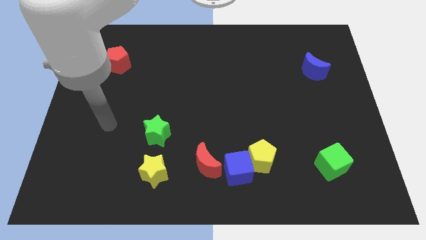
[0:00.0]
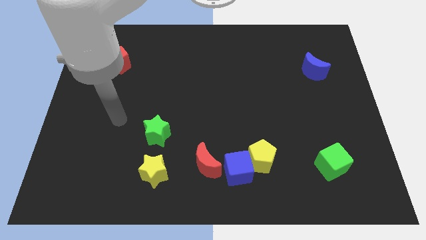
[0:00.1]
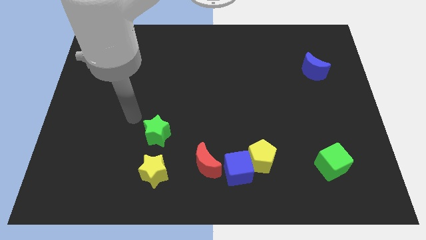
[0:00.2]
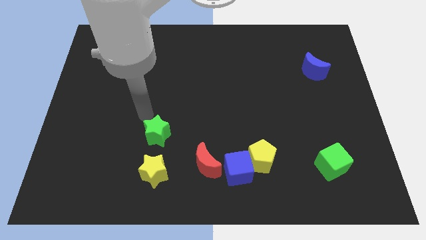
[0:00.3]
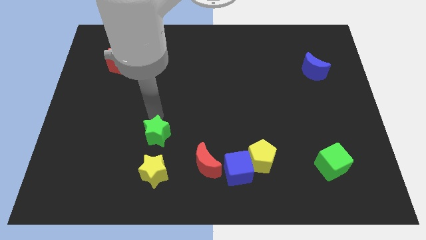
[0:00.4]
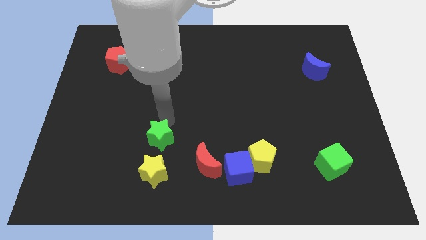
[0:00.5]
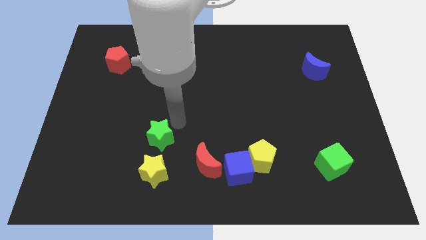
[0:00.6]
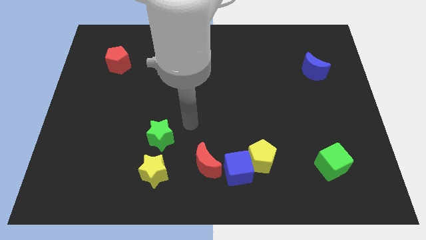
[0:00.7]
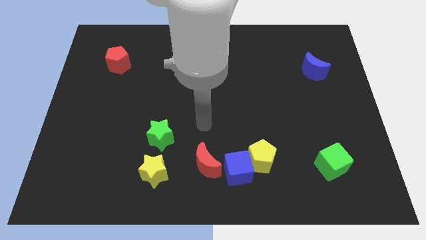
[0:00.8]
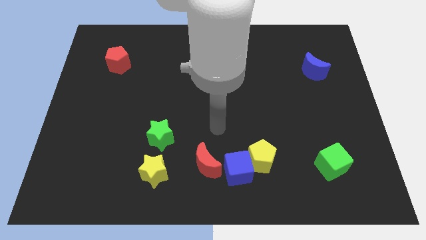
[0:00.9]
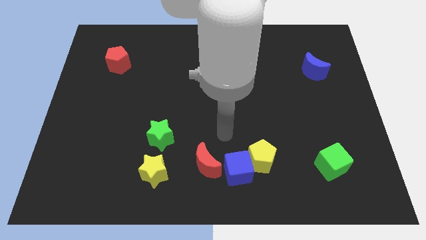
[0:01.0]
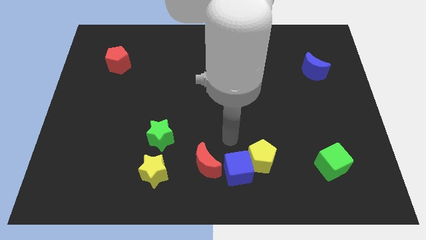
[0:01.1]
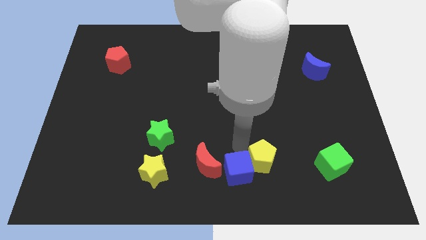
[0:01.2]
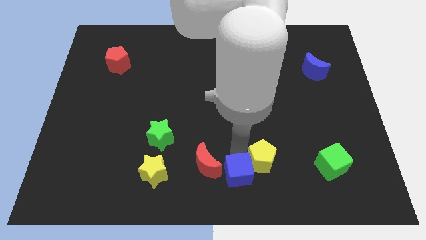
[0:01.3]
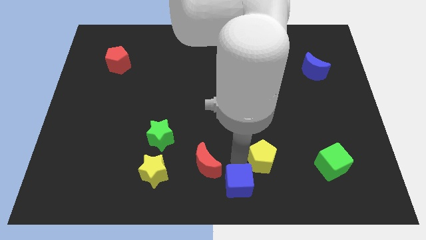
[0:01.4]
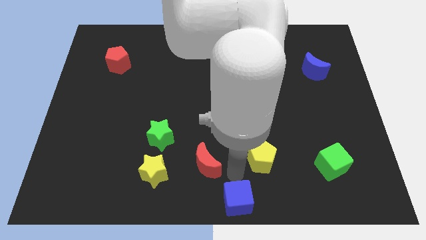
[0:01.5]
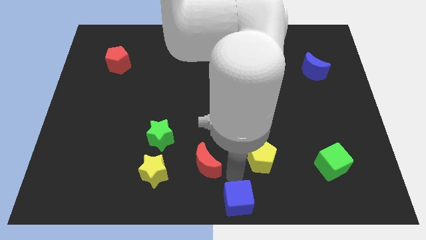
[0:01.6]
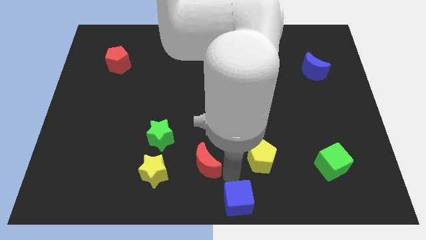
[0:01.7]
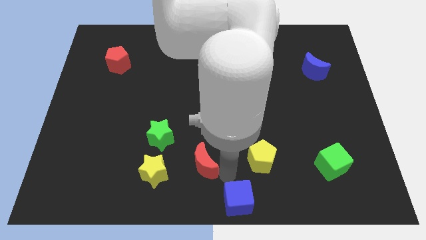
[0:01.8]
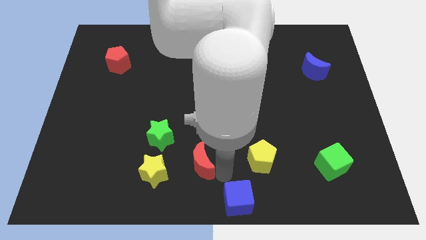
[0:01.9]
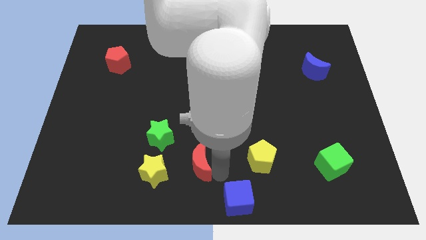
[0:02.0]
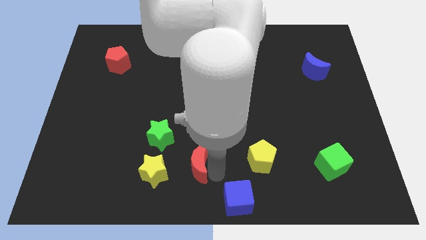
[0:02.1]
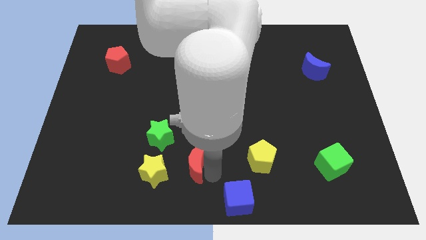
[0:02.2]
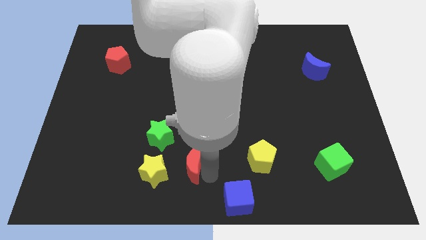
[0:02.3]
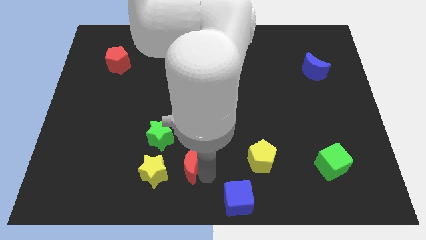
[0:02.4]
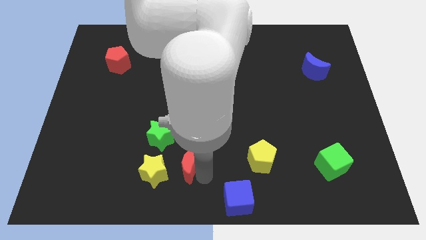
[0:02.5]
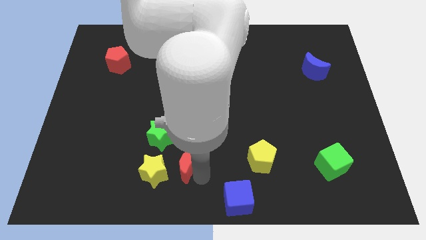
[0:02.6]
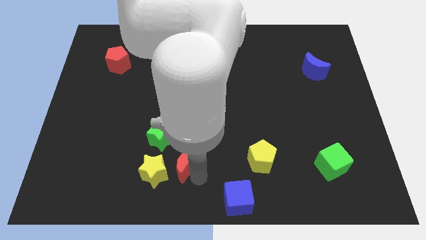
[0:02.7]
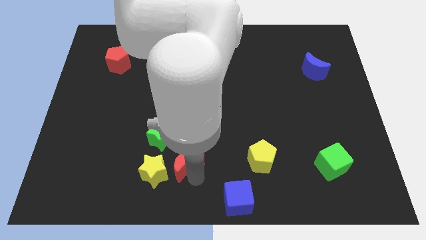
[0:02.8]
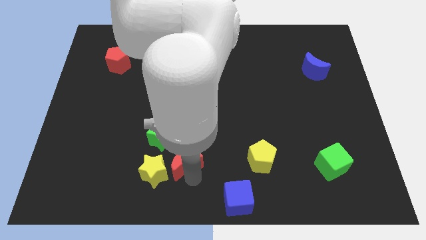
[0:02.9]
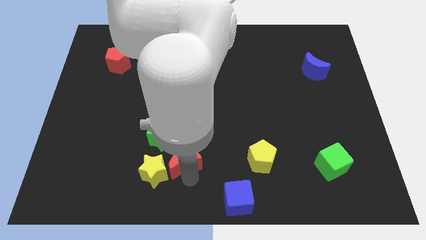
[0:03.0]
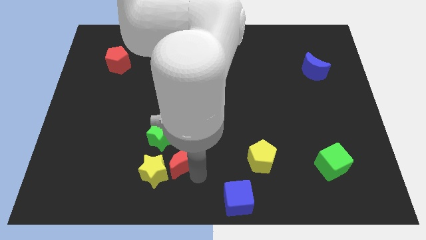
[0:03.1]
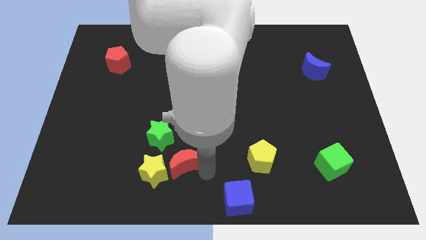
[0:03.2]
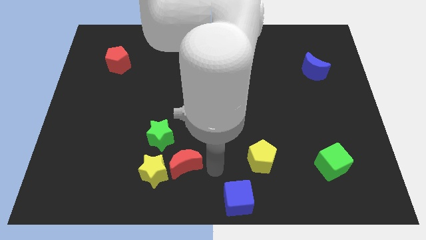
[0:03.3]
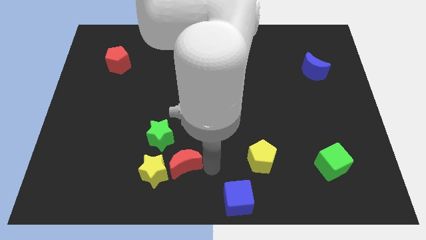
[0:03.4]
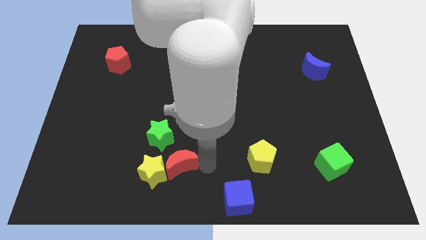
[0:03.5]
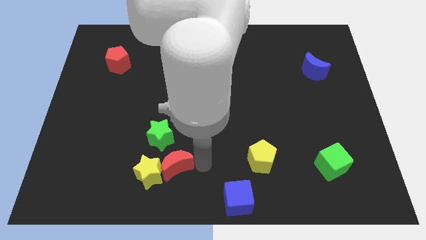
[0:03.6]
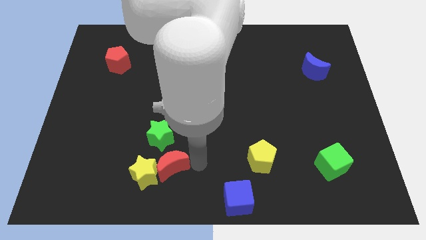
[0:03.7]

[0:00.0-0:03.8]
slightly push the red moon to the left

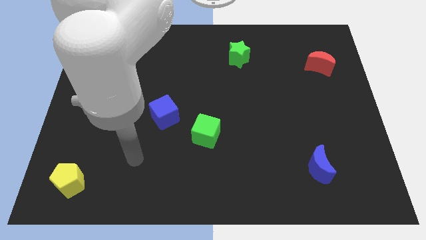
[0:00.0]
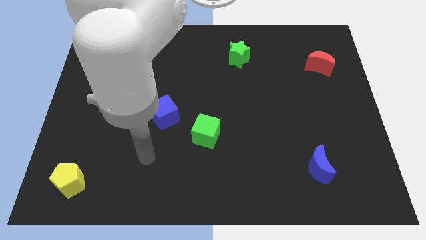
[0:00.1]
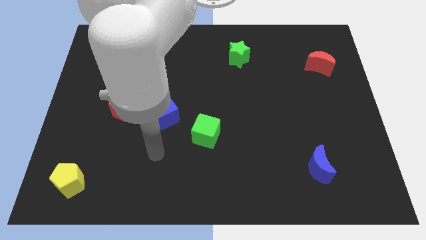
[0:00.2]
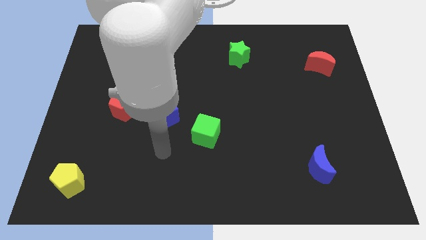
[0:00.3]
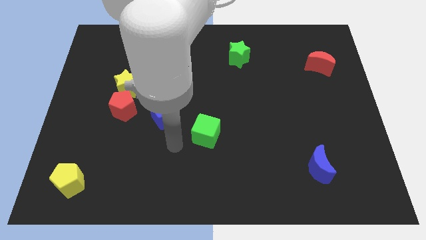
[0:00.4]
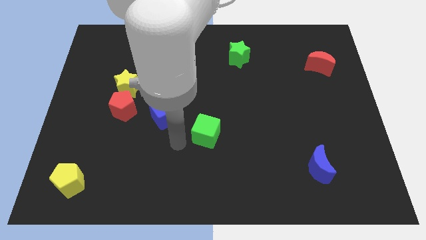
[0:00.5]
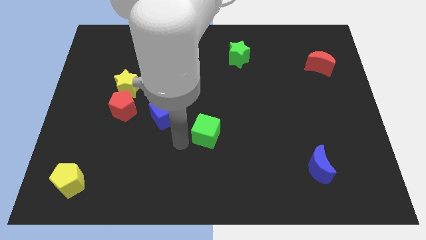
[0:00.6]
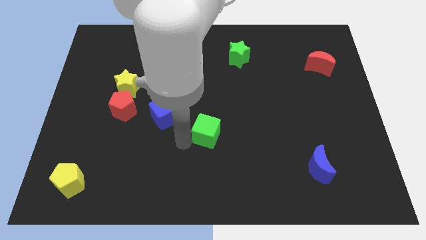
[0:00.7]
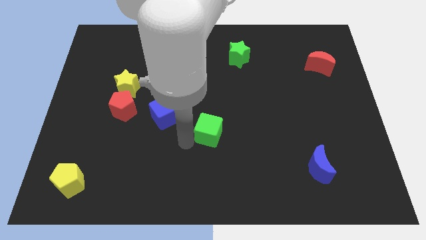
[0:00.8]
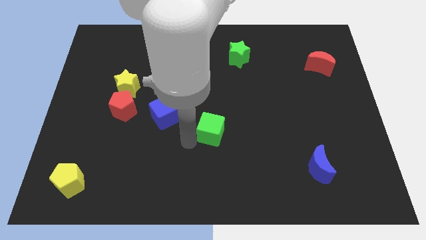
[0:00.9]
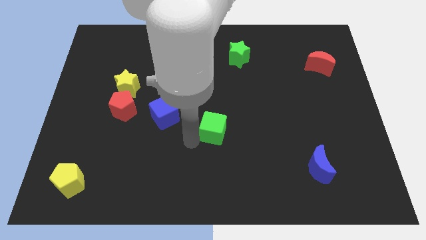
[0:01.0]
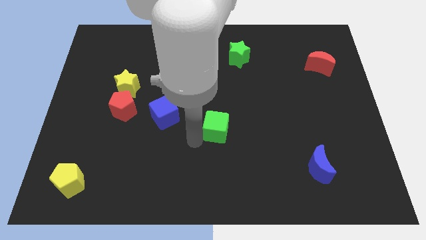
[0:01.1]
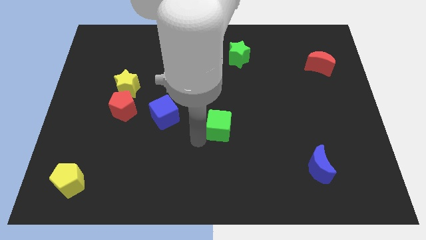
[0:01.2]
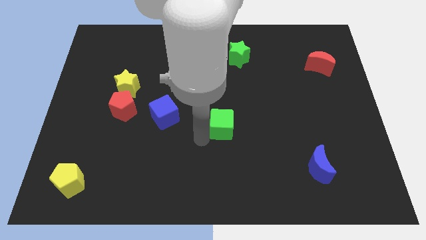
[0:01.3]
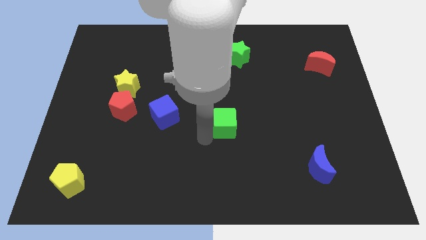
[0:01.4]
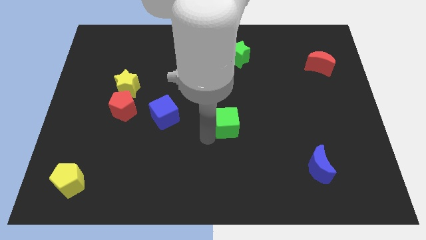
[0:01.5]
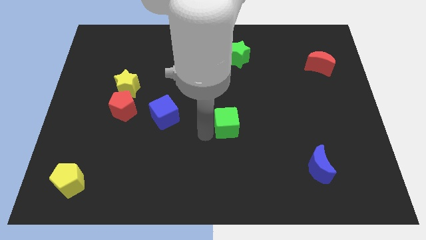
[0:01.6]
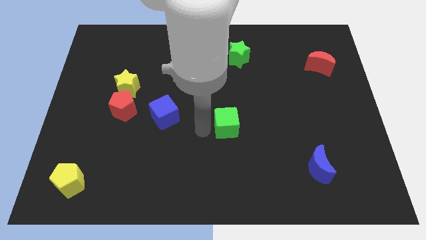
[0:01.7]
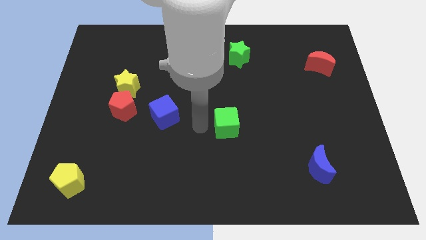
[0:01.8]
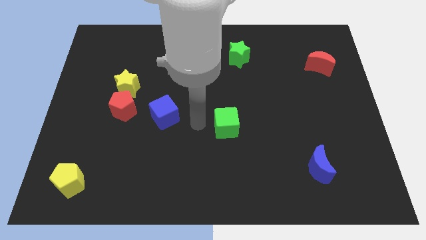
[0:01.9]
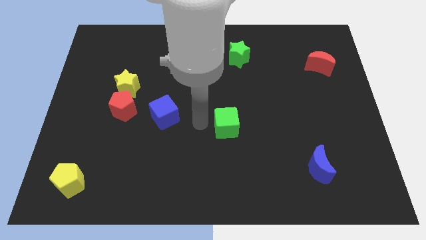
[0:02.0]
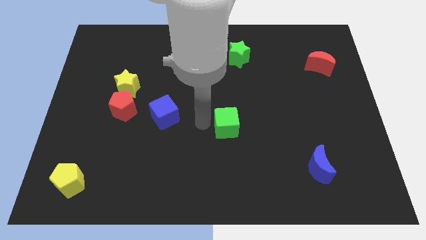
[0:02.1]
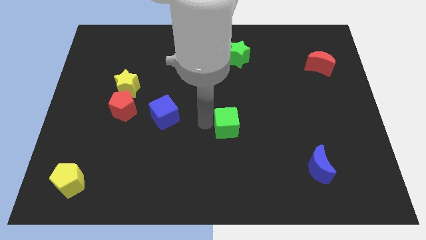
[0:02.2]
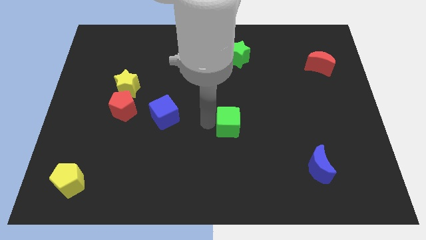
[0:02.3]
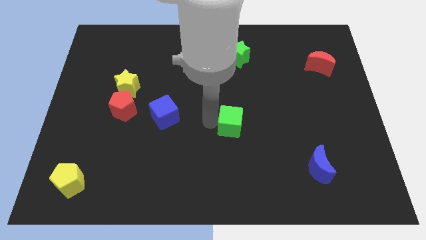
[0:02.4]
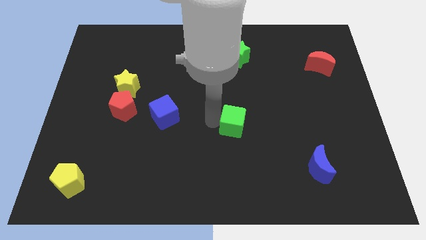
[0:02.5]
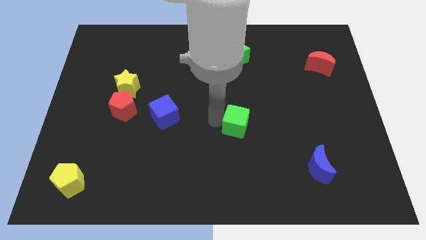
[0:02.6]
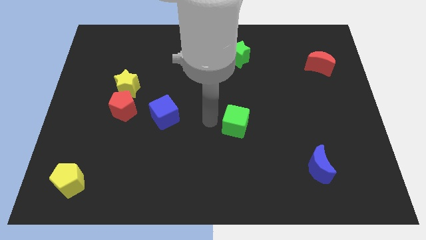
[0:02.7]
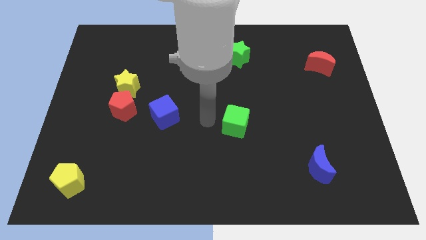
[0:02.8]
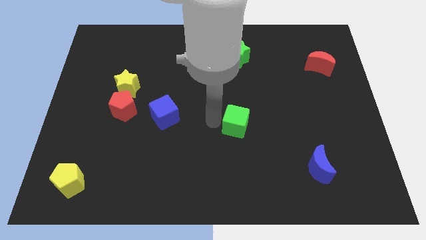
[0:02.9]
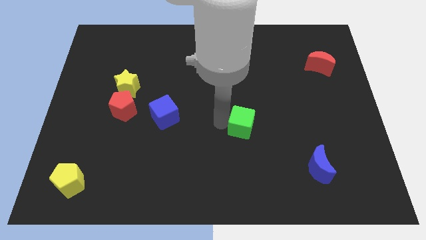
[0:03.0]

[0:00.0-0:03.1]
slightly slide the green cube right

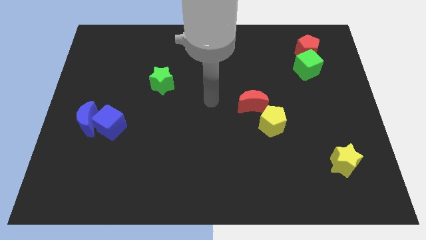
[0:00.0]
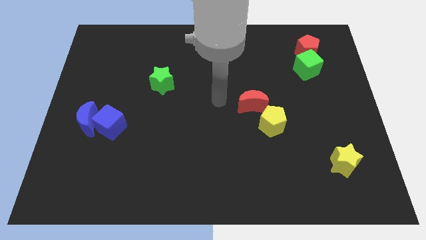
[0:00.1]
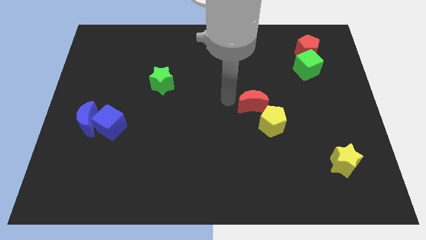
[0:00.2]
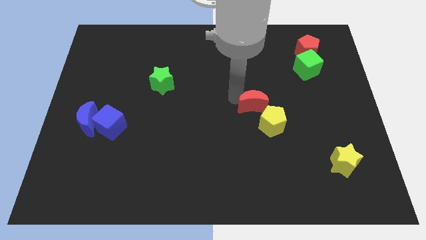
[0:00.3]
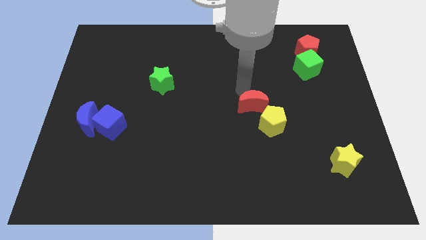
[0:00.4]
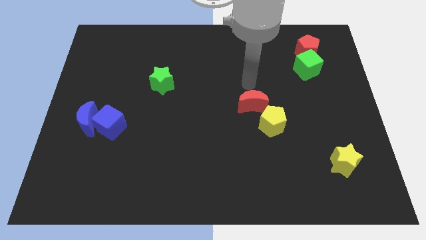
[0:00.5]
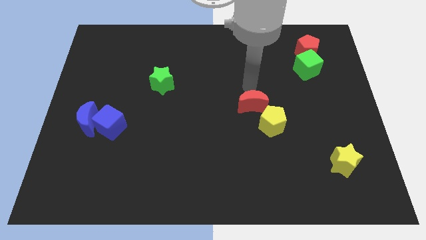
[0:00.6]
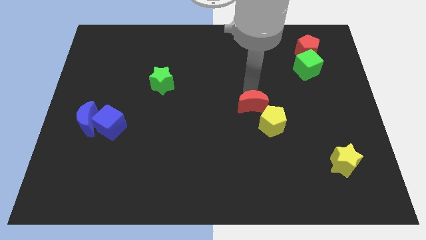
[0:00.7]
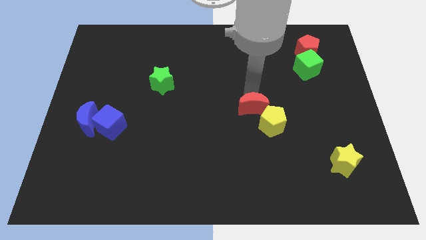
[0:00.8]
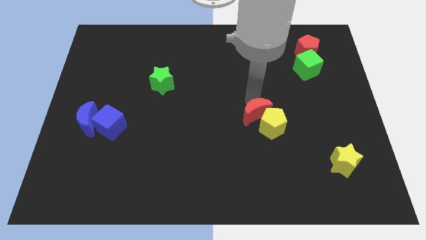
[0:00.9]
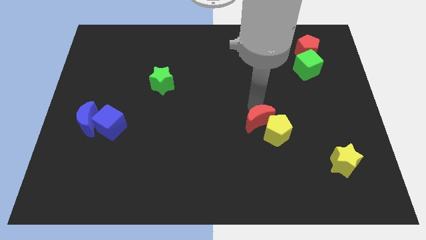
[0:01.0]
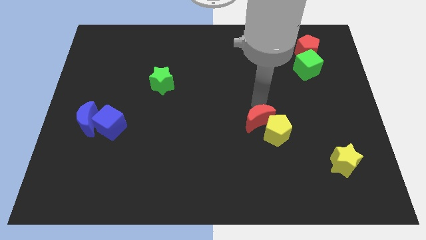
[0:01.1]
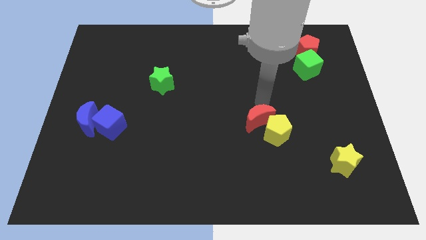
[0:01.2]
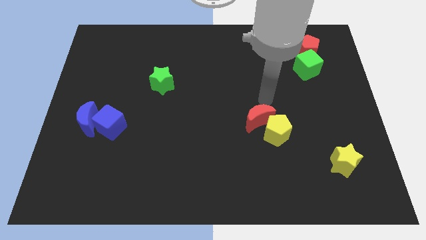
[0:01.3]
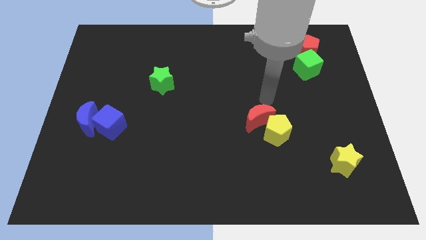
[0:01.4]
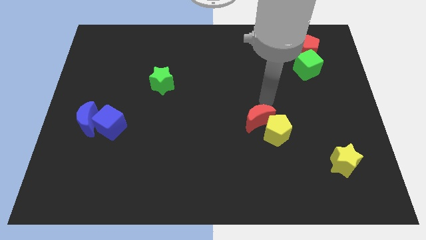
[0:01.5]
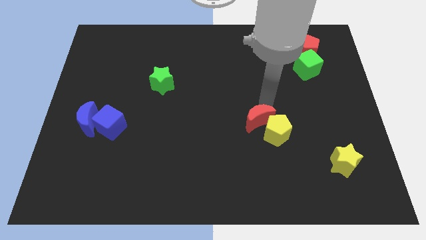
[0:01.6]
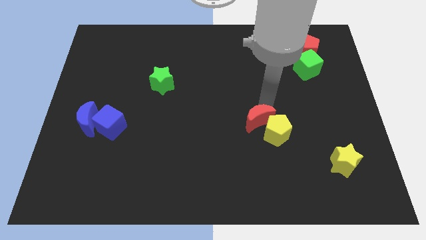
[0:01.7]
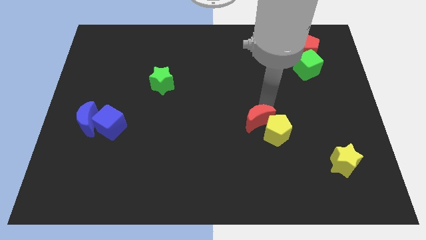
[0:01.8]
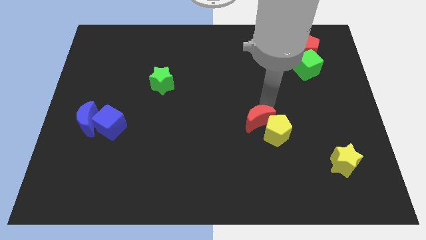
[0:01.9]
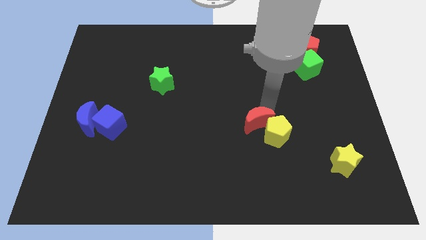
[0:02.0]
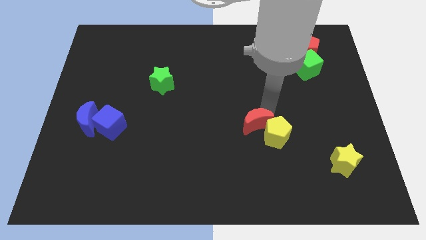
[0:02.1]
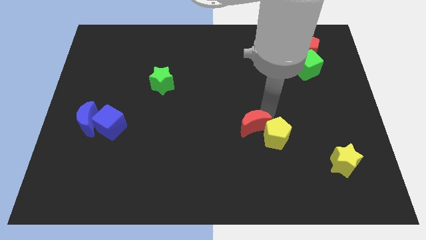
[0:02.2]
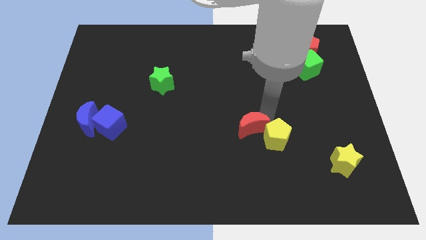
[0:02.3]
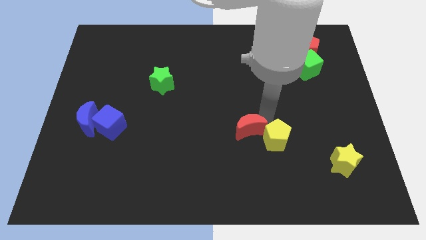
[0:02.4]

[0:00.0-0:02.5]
push the red moon slightly down
